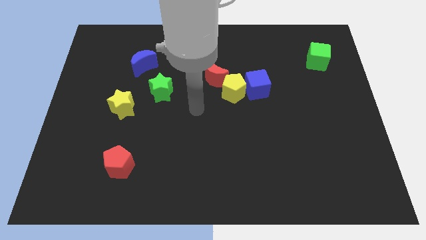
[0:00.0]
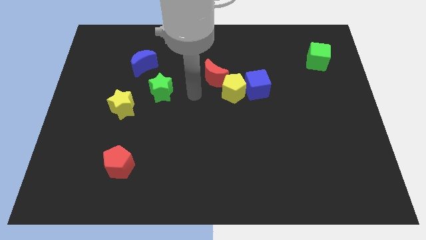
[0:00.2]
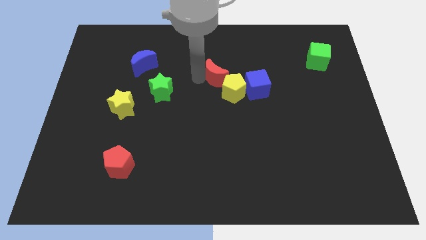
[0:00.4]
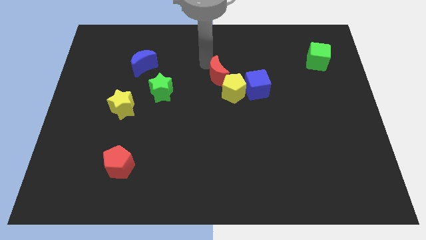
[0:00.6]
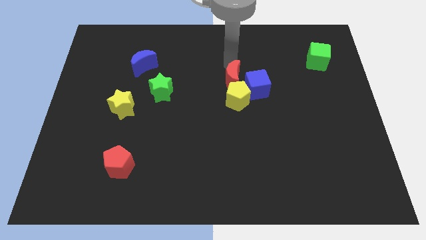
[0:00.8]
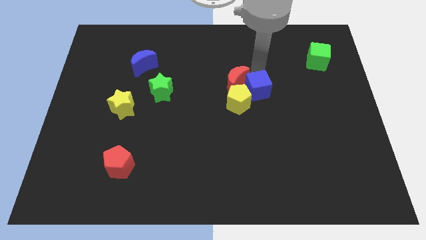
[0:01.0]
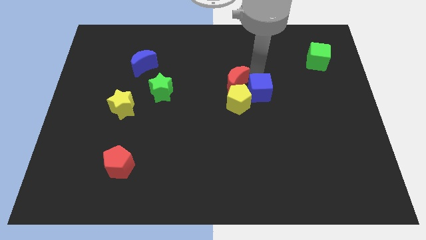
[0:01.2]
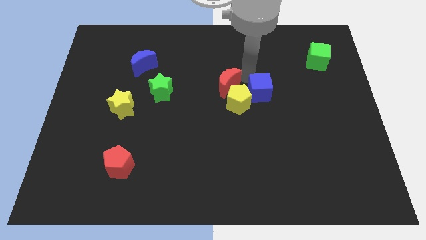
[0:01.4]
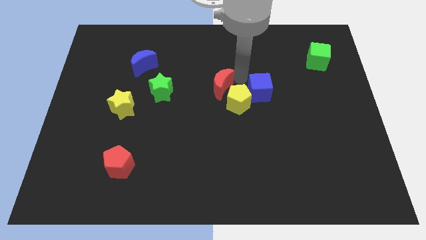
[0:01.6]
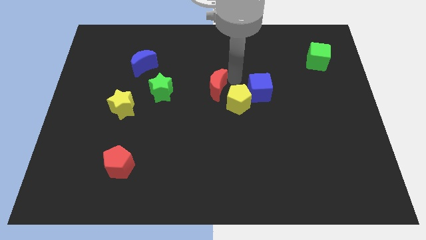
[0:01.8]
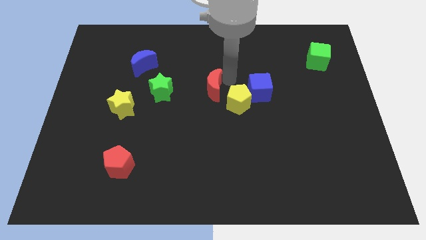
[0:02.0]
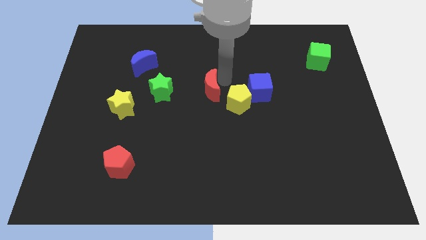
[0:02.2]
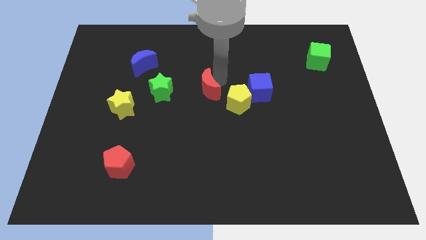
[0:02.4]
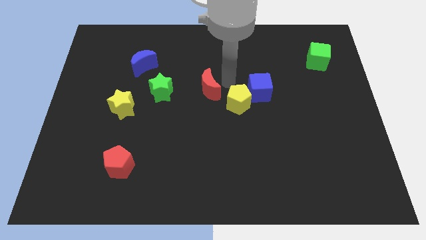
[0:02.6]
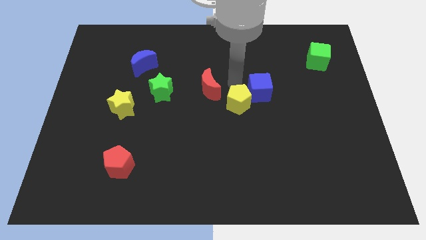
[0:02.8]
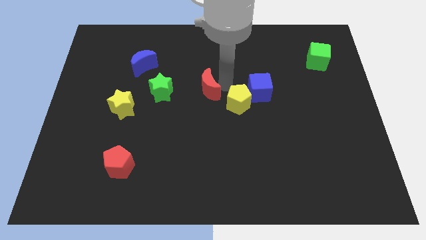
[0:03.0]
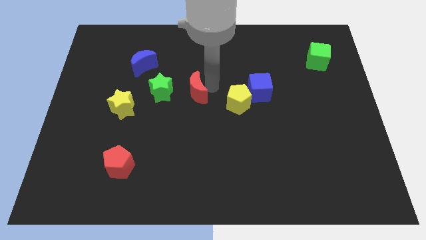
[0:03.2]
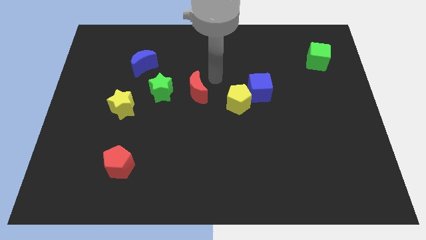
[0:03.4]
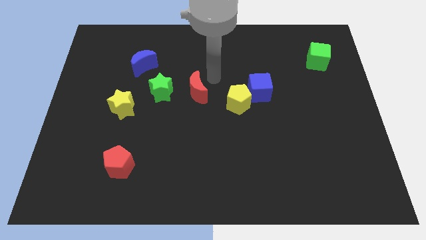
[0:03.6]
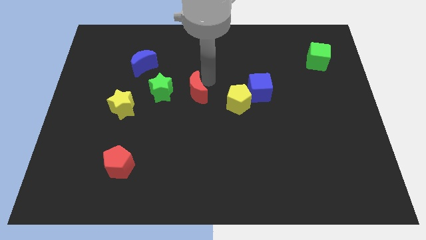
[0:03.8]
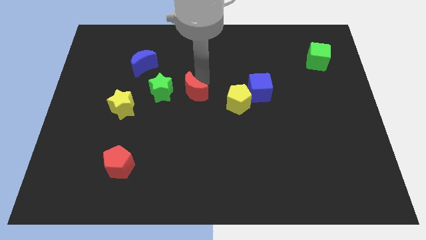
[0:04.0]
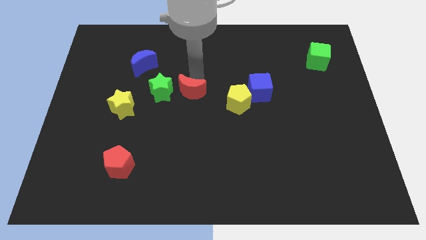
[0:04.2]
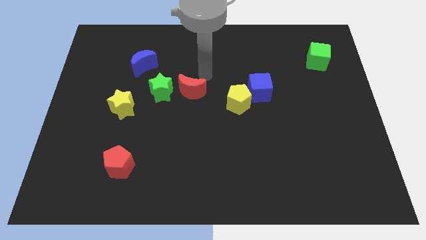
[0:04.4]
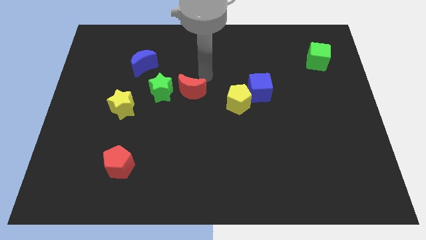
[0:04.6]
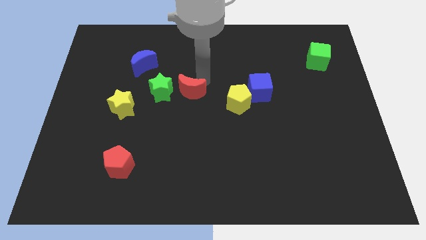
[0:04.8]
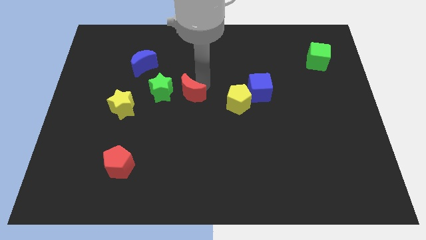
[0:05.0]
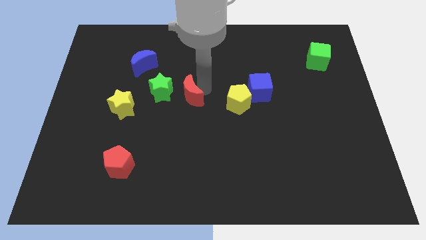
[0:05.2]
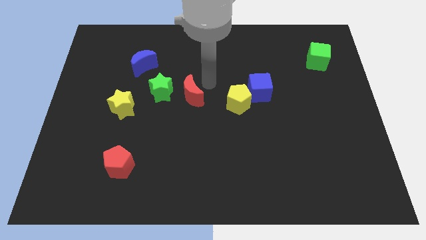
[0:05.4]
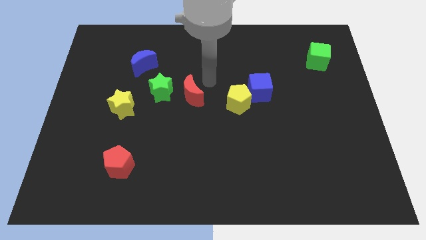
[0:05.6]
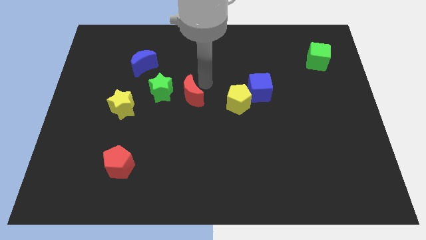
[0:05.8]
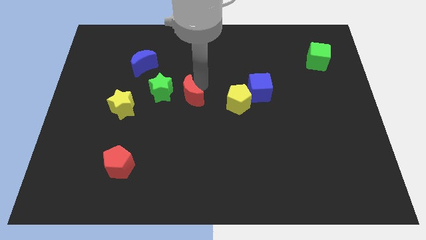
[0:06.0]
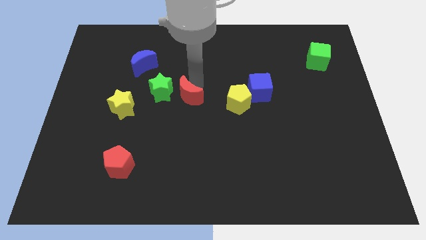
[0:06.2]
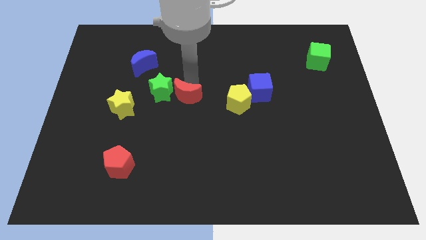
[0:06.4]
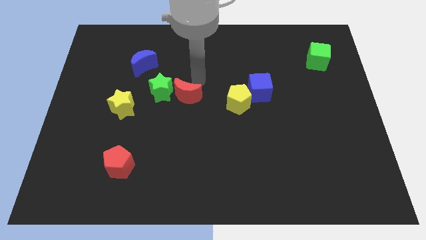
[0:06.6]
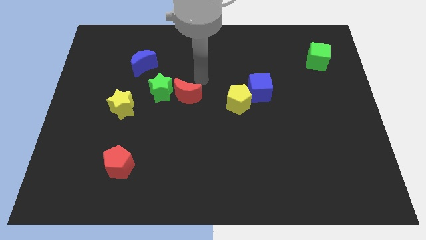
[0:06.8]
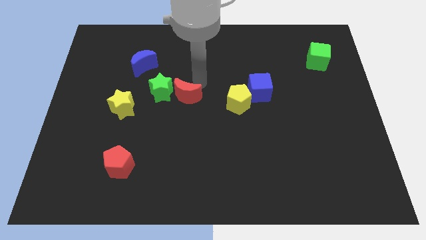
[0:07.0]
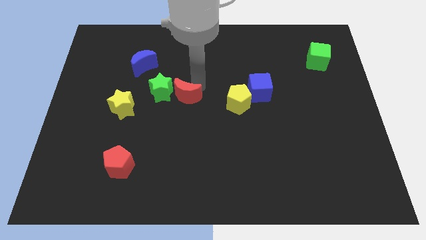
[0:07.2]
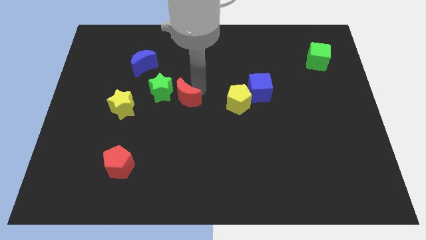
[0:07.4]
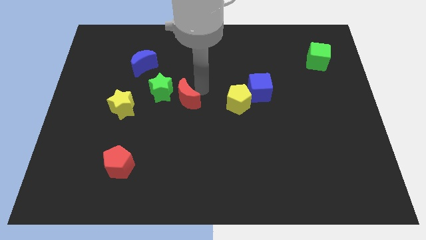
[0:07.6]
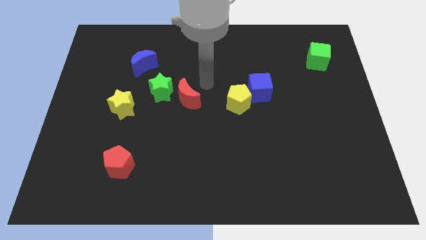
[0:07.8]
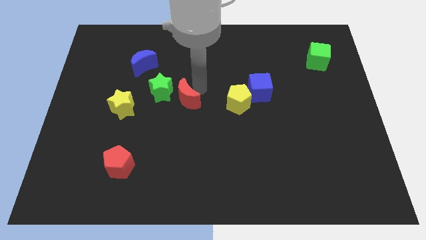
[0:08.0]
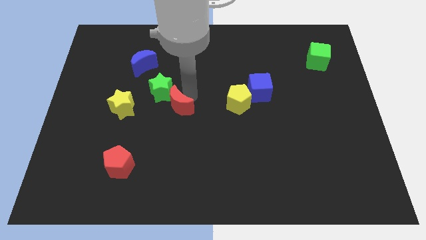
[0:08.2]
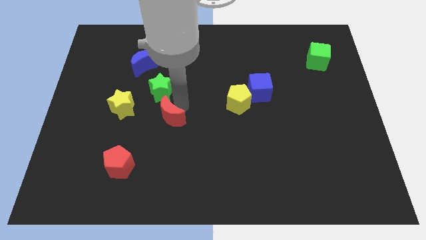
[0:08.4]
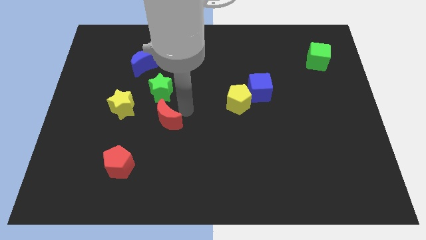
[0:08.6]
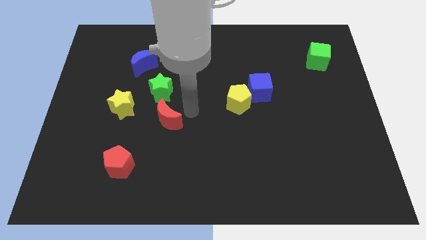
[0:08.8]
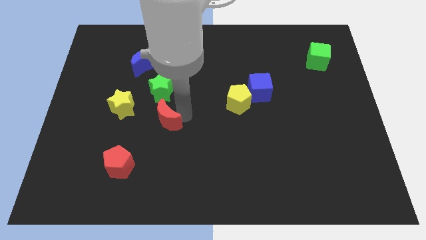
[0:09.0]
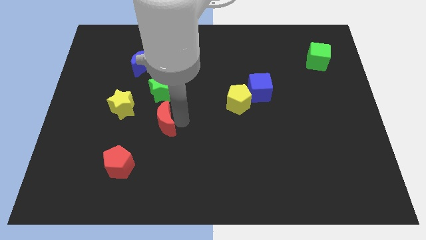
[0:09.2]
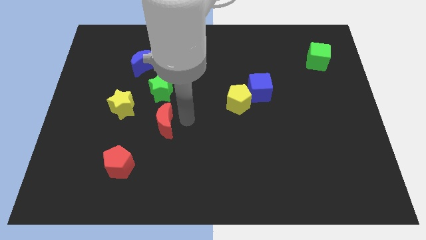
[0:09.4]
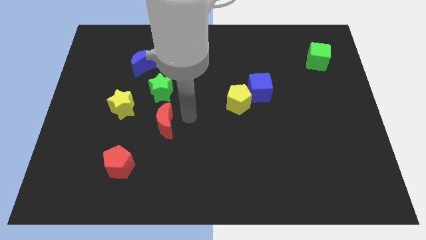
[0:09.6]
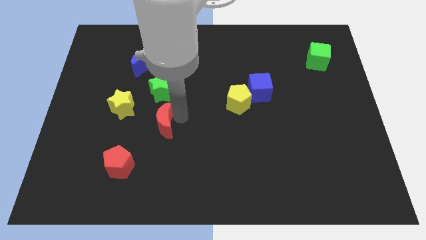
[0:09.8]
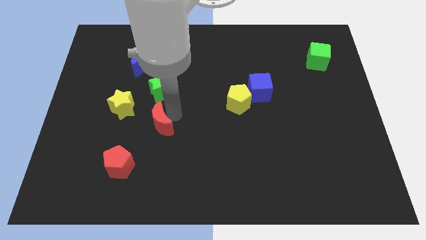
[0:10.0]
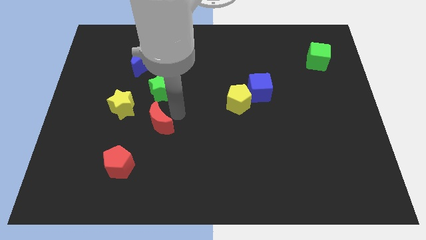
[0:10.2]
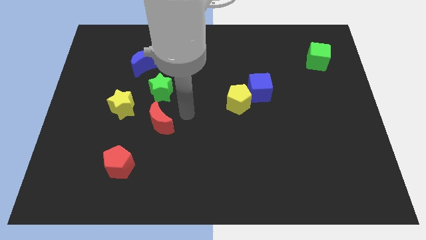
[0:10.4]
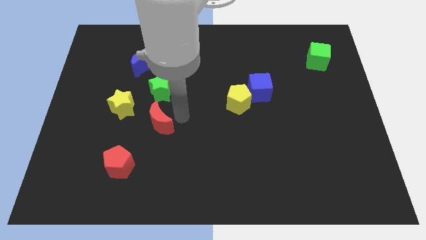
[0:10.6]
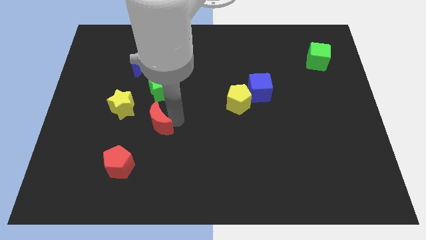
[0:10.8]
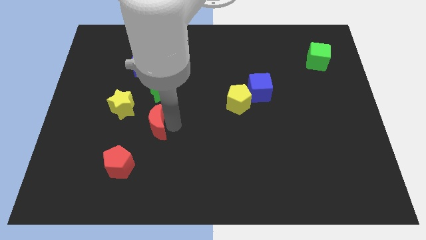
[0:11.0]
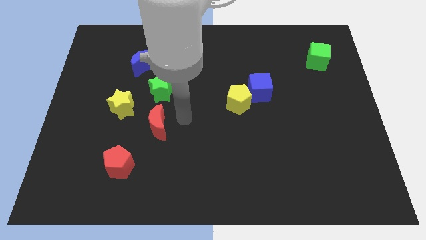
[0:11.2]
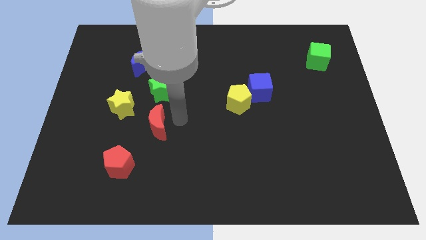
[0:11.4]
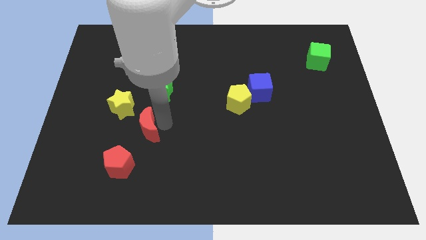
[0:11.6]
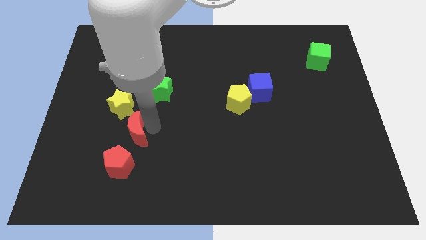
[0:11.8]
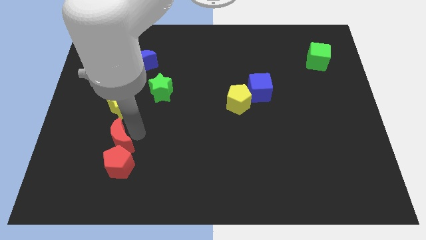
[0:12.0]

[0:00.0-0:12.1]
slide the red moon diagonally up and to the left of the red pentagon

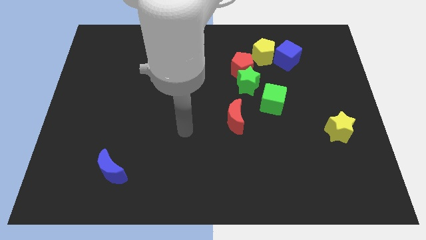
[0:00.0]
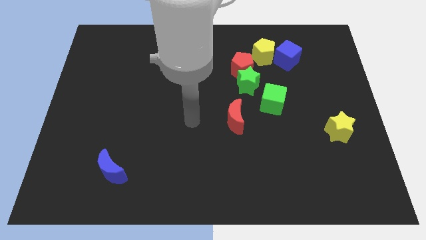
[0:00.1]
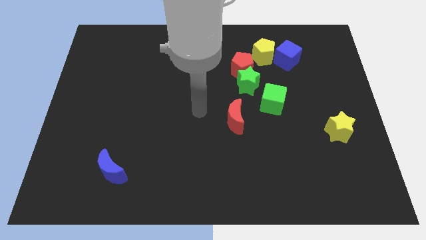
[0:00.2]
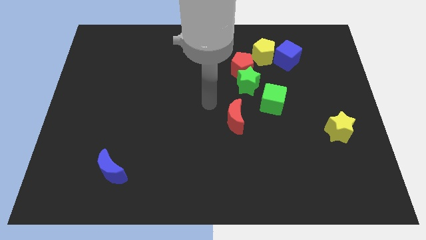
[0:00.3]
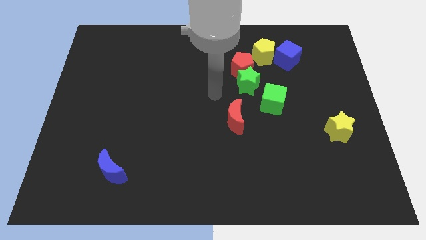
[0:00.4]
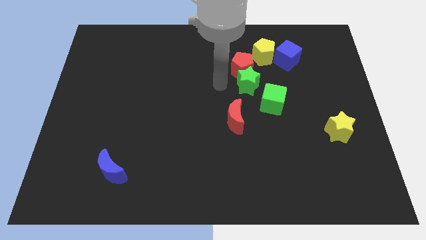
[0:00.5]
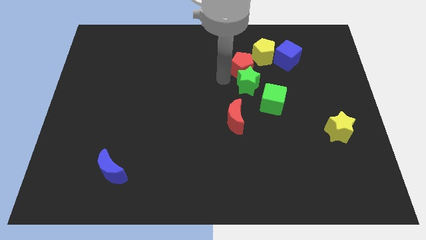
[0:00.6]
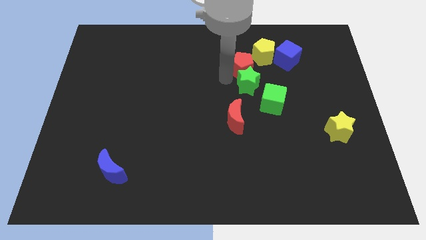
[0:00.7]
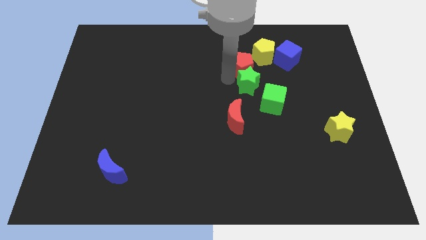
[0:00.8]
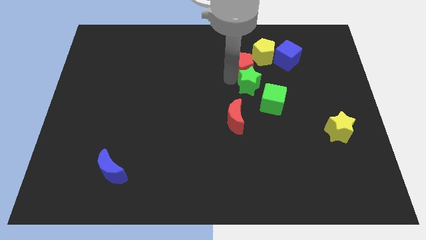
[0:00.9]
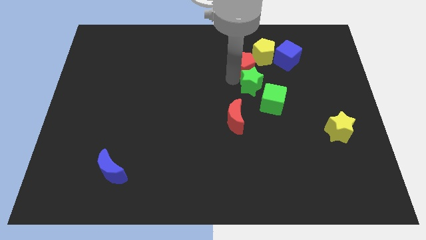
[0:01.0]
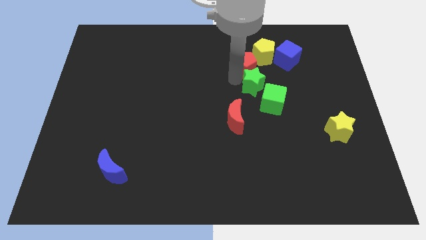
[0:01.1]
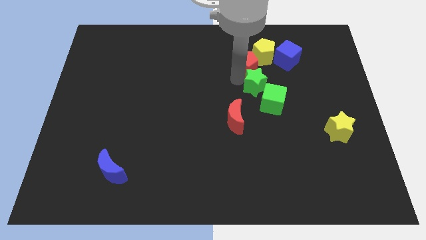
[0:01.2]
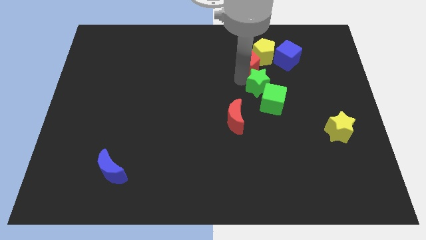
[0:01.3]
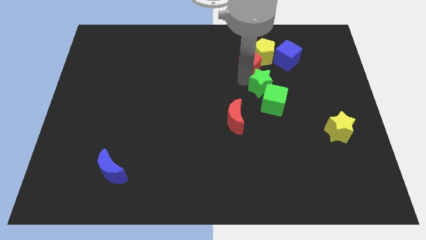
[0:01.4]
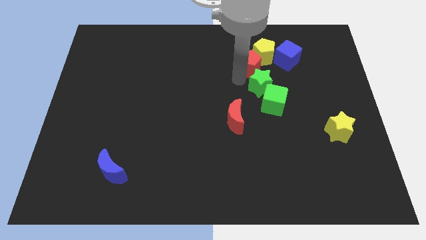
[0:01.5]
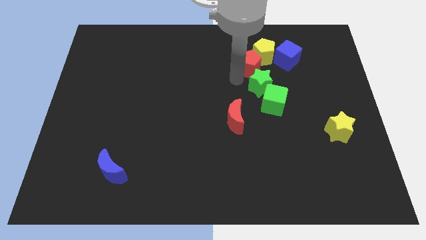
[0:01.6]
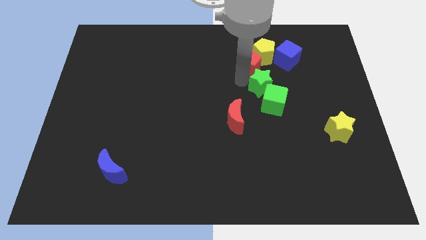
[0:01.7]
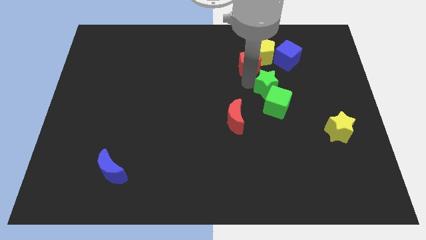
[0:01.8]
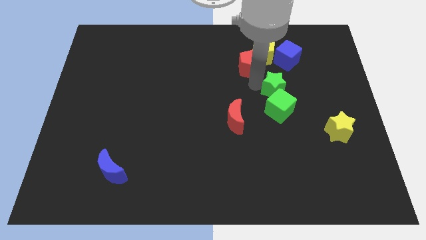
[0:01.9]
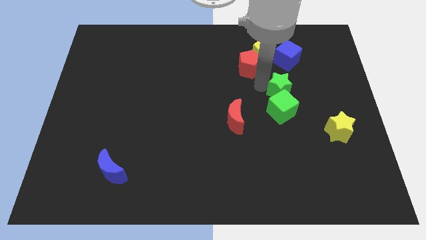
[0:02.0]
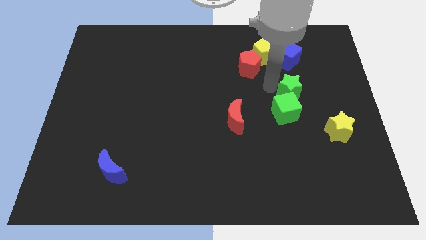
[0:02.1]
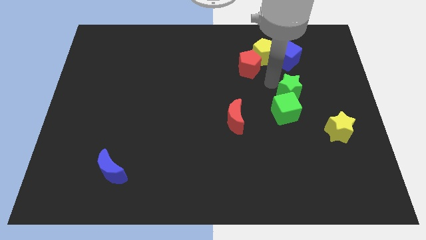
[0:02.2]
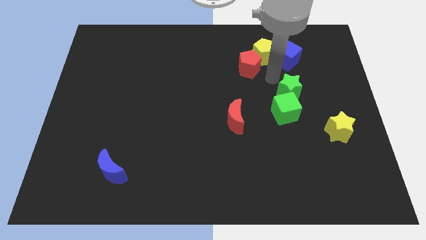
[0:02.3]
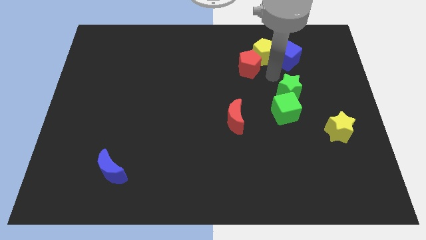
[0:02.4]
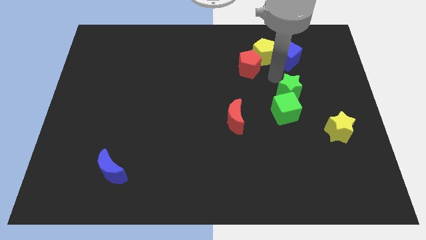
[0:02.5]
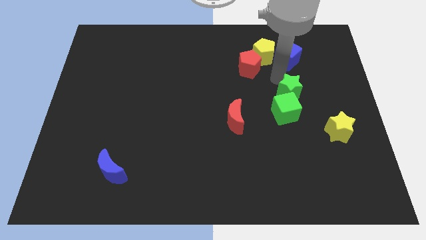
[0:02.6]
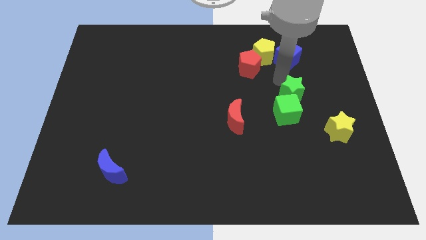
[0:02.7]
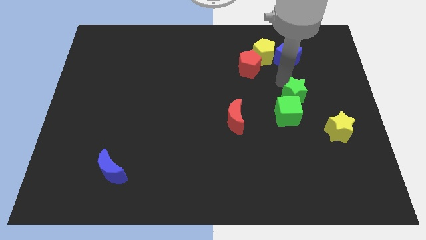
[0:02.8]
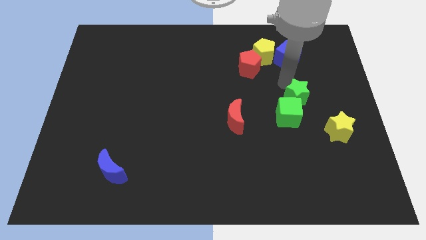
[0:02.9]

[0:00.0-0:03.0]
slide the green star to the top left of the yellow star
